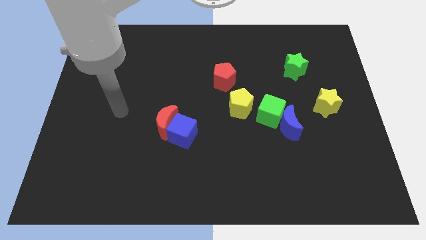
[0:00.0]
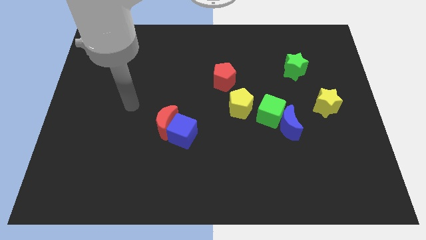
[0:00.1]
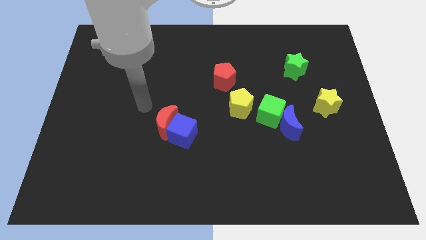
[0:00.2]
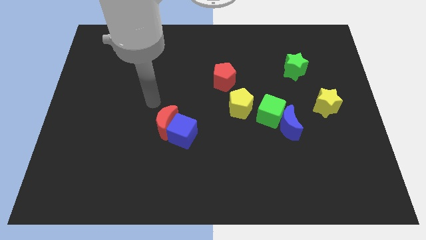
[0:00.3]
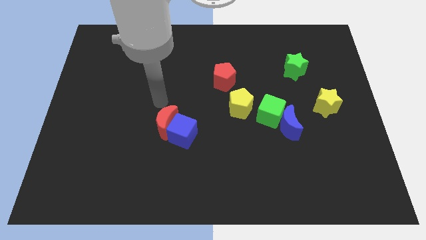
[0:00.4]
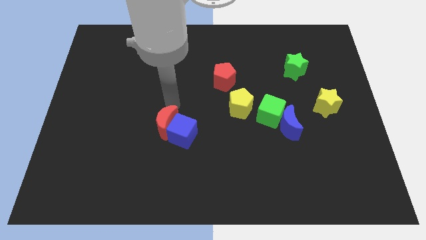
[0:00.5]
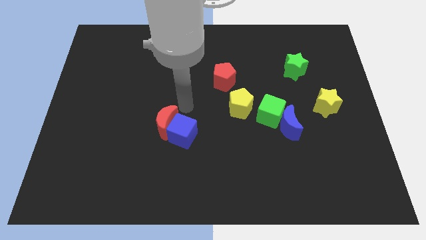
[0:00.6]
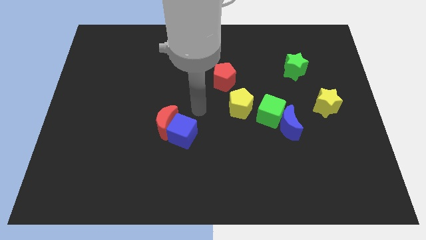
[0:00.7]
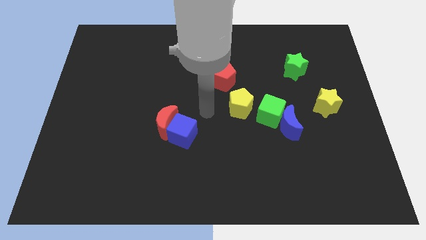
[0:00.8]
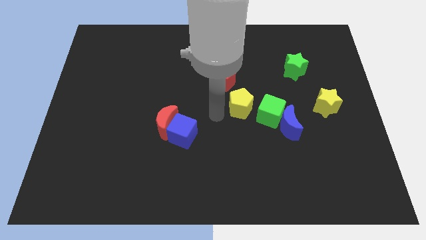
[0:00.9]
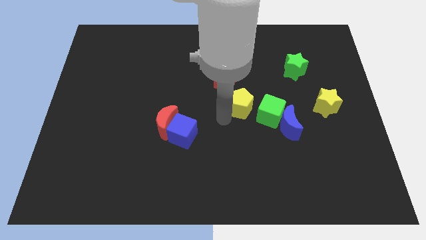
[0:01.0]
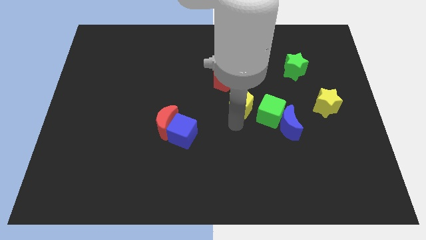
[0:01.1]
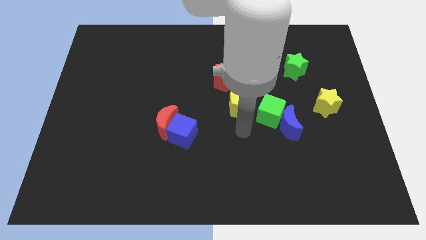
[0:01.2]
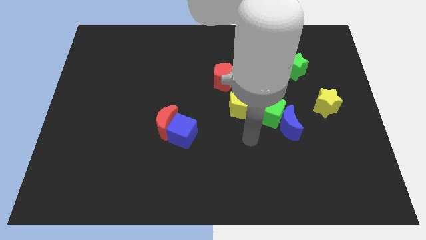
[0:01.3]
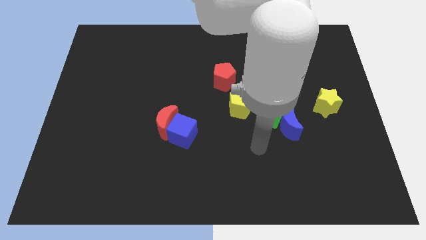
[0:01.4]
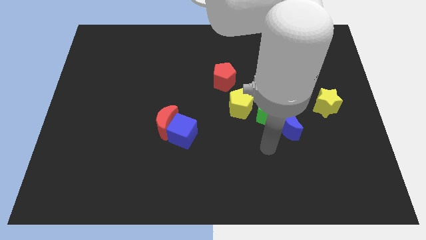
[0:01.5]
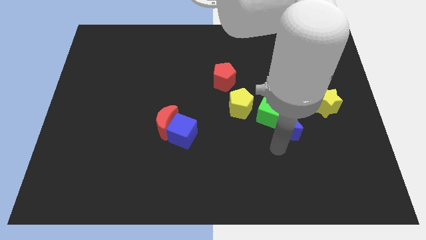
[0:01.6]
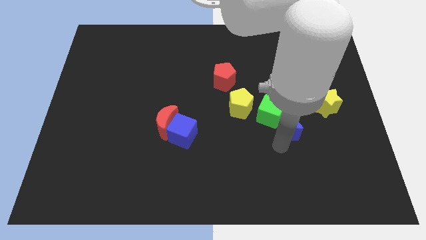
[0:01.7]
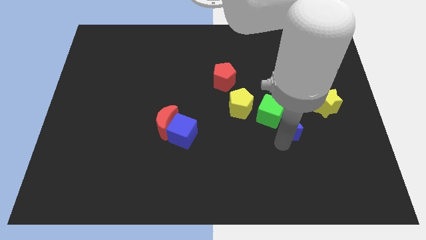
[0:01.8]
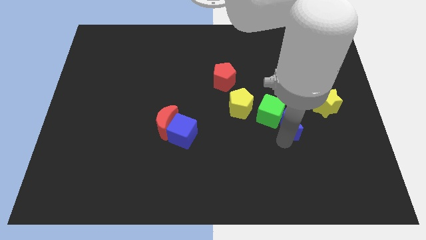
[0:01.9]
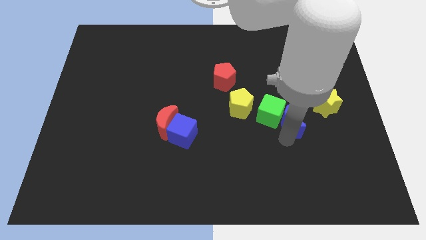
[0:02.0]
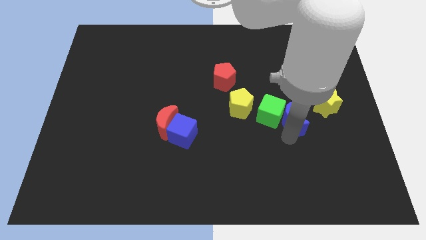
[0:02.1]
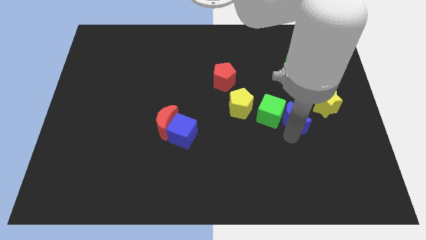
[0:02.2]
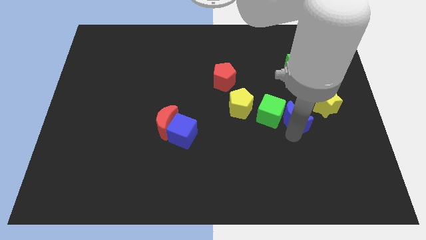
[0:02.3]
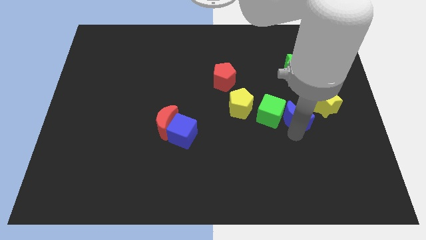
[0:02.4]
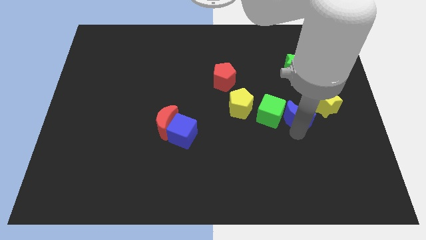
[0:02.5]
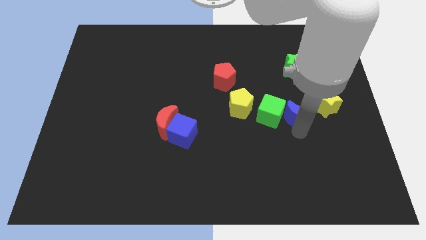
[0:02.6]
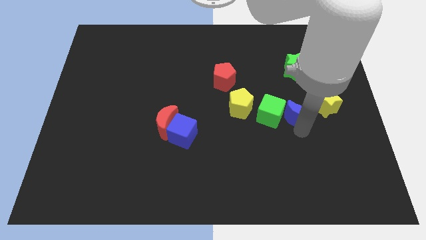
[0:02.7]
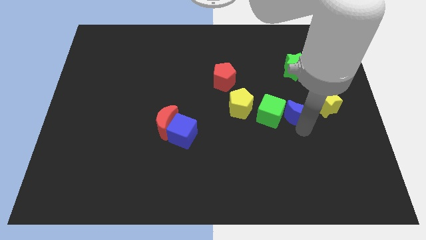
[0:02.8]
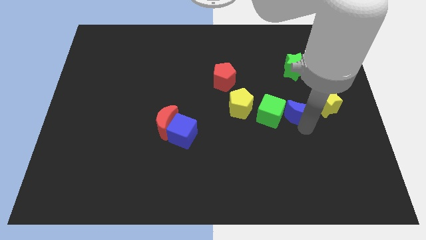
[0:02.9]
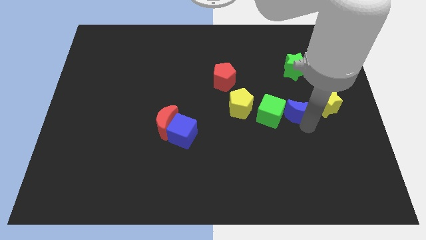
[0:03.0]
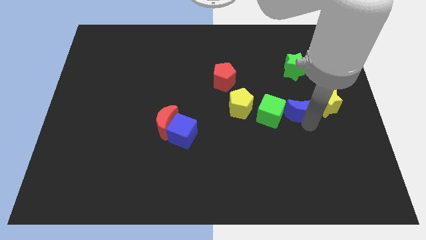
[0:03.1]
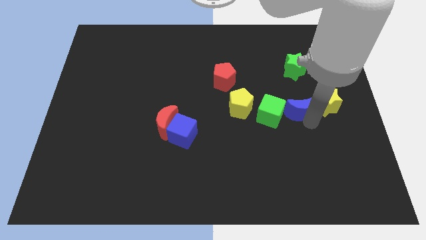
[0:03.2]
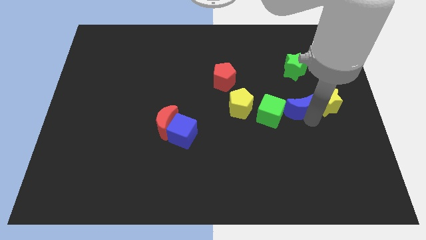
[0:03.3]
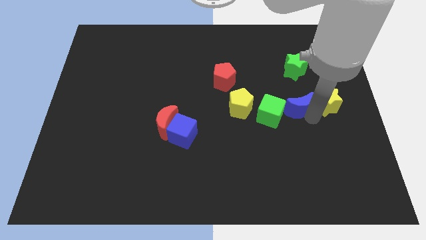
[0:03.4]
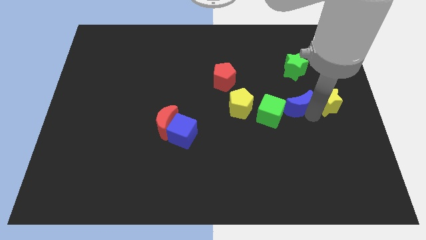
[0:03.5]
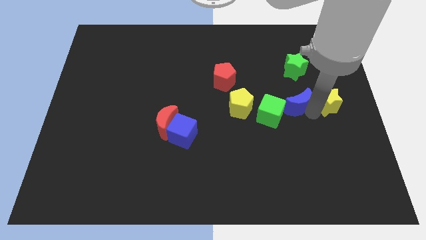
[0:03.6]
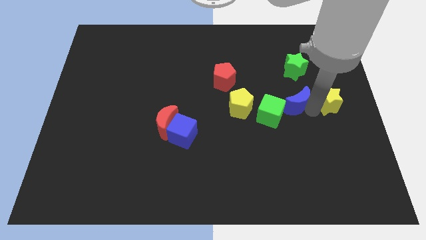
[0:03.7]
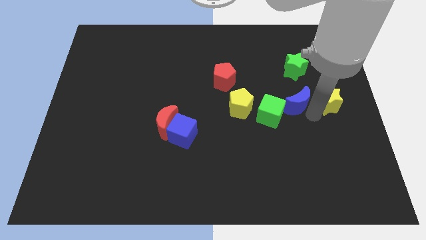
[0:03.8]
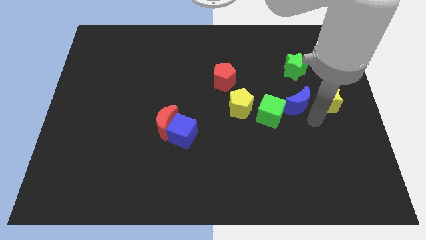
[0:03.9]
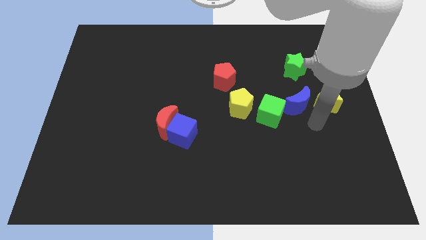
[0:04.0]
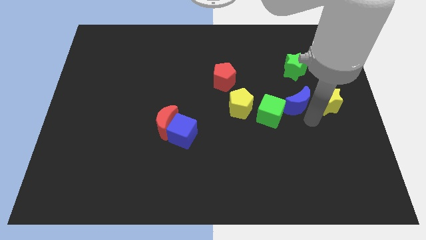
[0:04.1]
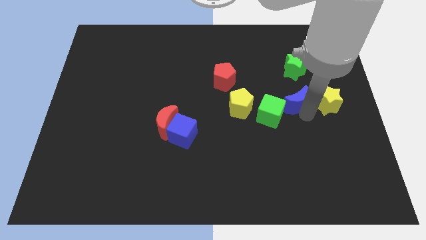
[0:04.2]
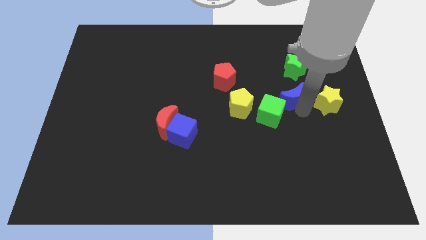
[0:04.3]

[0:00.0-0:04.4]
push the blue moon a little upwards

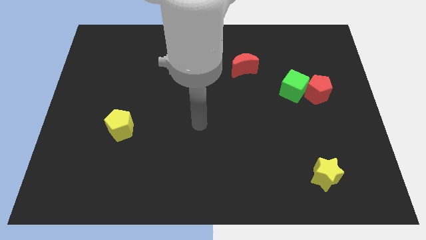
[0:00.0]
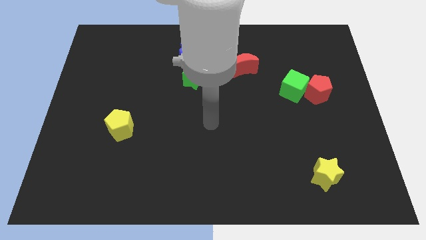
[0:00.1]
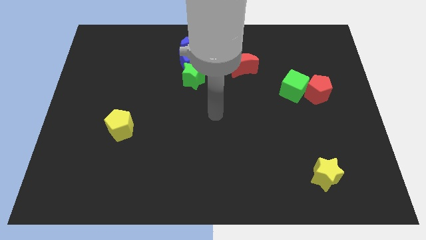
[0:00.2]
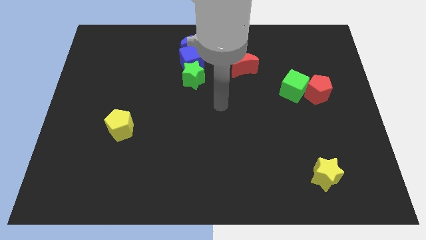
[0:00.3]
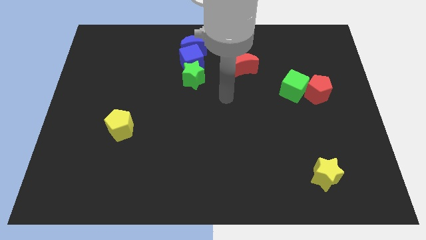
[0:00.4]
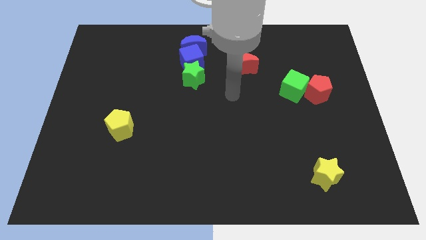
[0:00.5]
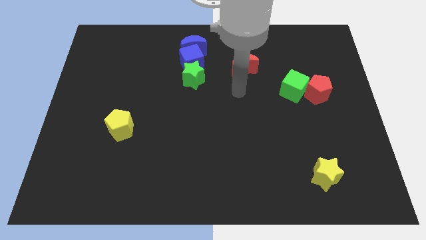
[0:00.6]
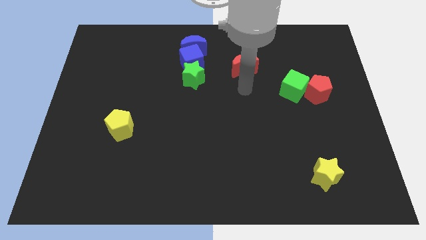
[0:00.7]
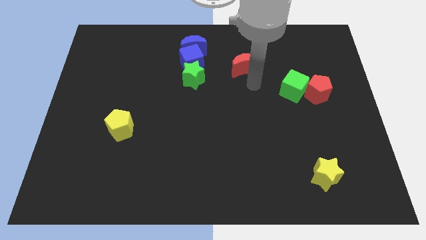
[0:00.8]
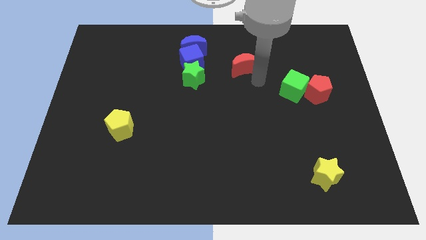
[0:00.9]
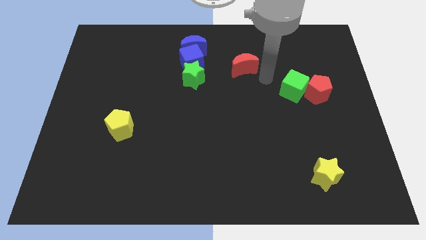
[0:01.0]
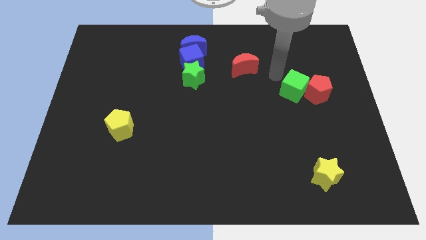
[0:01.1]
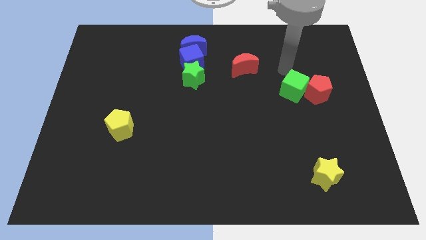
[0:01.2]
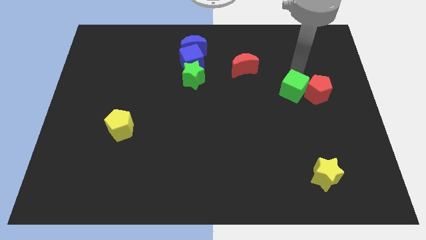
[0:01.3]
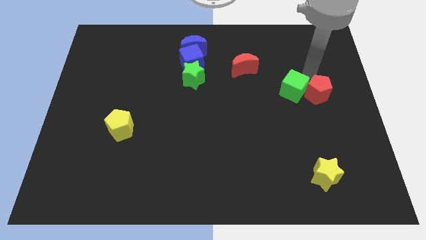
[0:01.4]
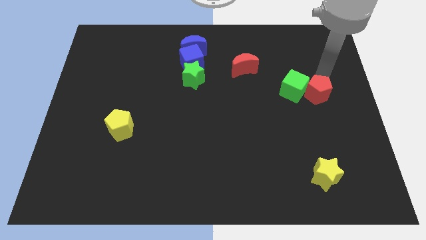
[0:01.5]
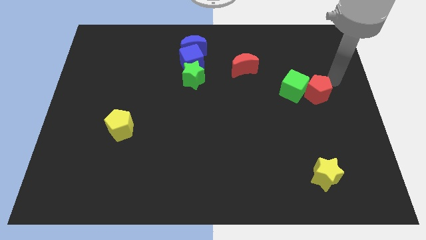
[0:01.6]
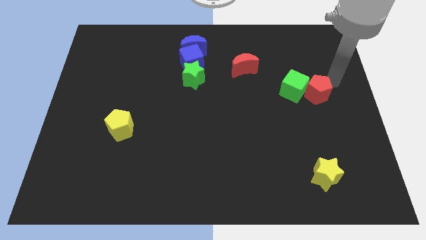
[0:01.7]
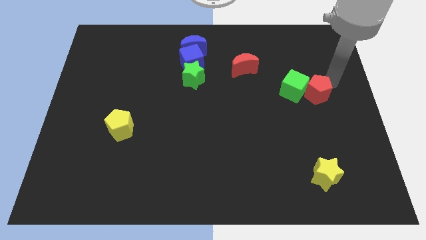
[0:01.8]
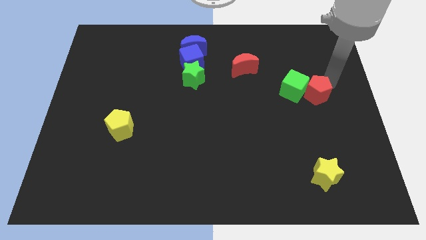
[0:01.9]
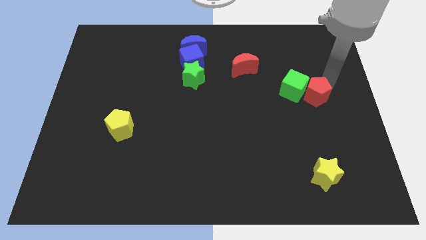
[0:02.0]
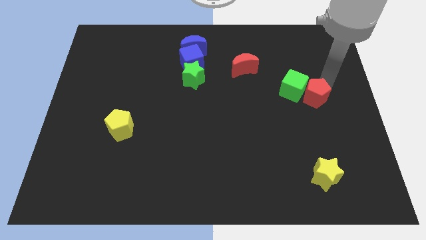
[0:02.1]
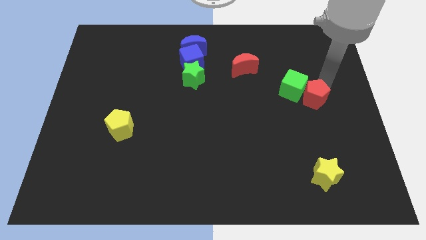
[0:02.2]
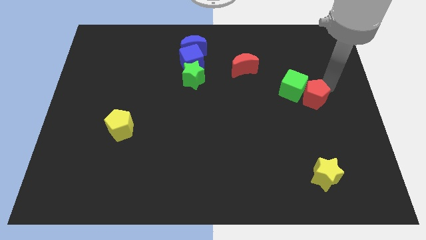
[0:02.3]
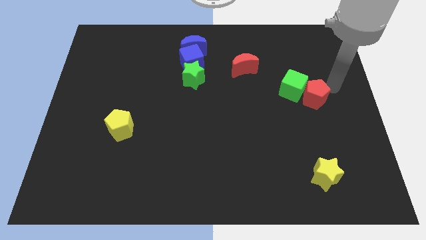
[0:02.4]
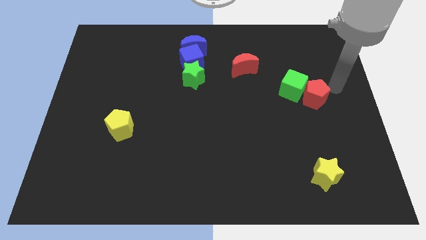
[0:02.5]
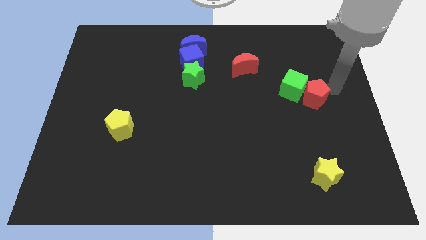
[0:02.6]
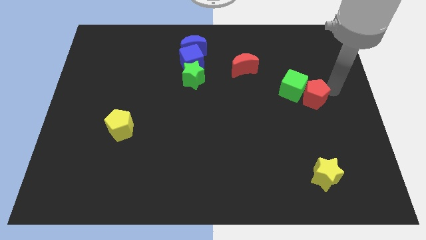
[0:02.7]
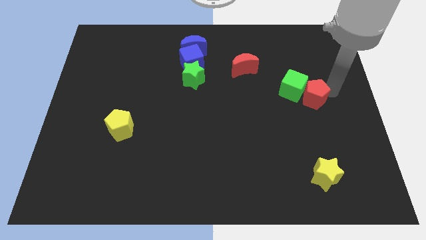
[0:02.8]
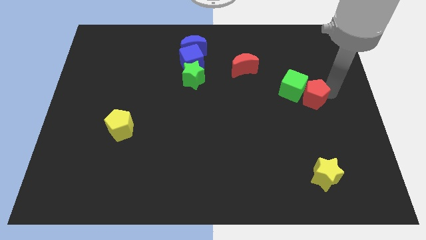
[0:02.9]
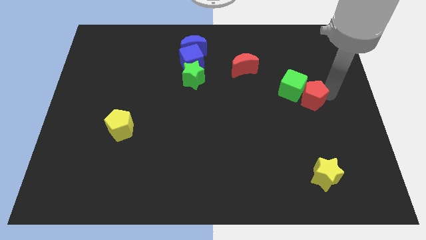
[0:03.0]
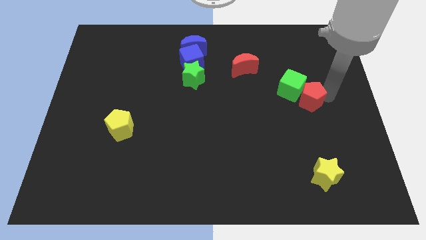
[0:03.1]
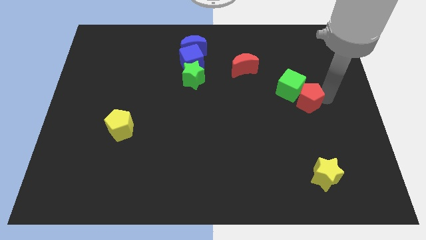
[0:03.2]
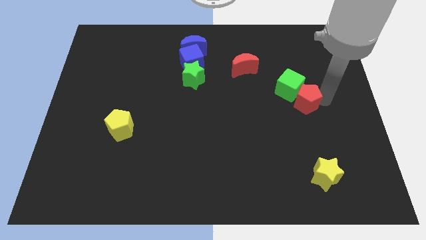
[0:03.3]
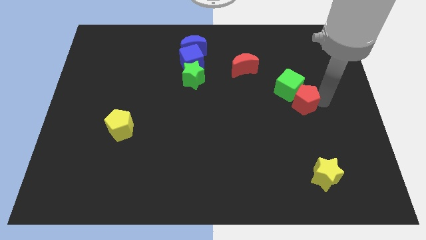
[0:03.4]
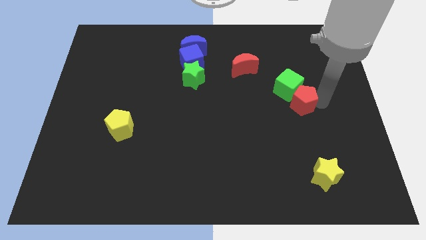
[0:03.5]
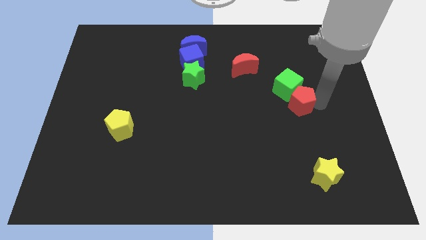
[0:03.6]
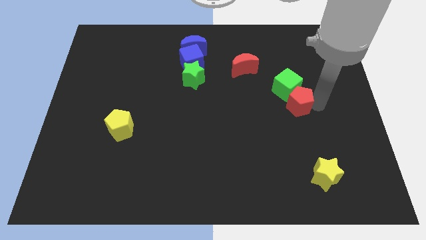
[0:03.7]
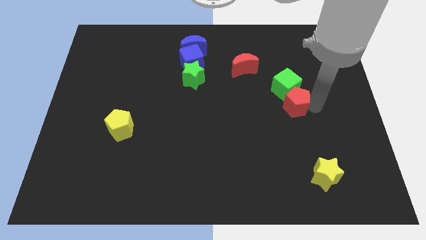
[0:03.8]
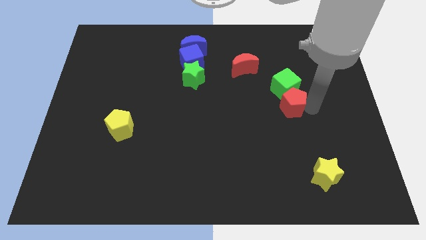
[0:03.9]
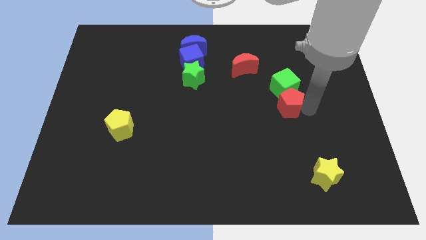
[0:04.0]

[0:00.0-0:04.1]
slide the red pentagon slightly to the left
